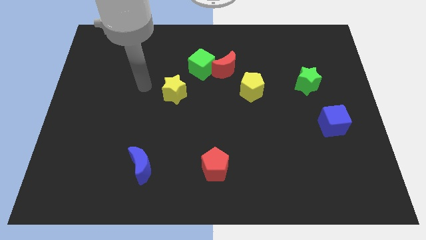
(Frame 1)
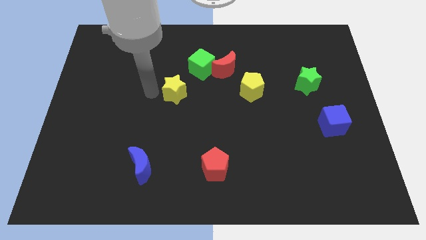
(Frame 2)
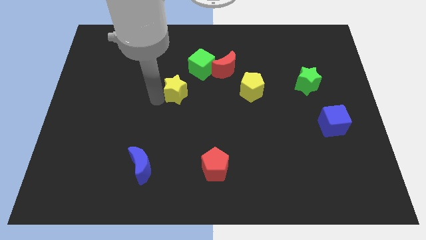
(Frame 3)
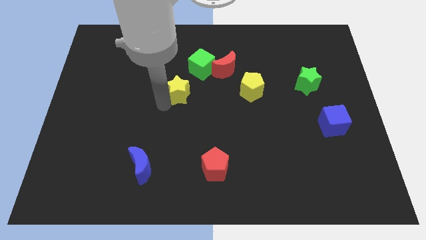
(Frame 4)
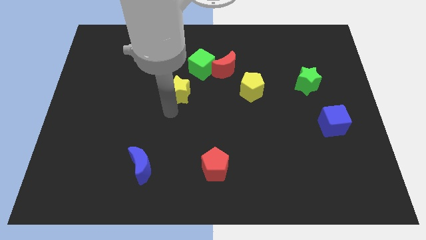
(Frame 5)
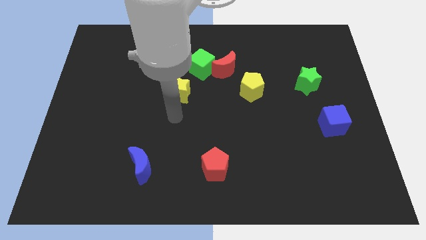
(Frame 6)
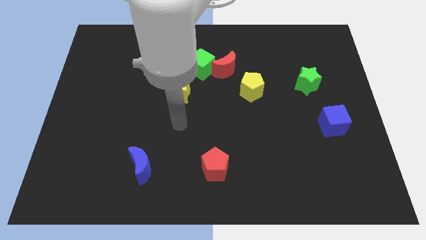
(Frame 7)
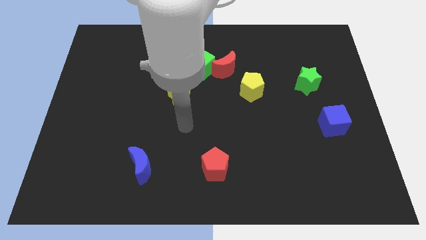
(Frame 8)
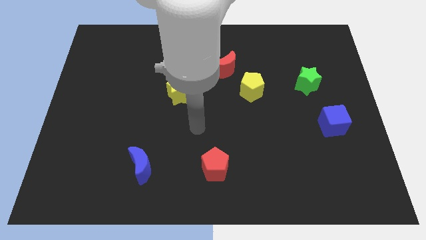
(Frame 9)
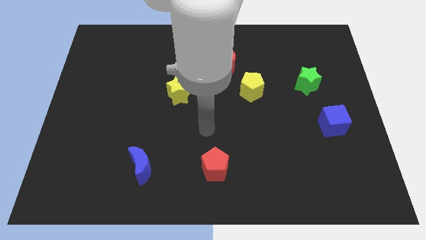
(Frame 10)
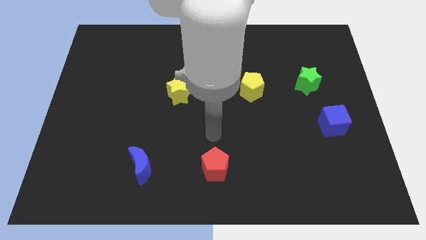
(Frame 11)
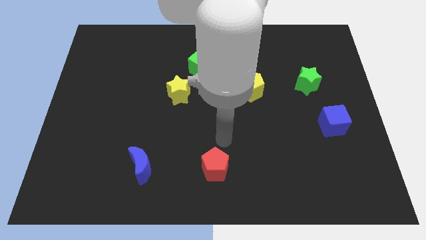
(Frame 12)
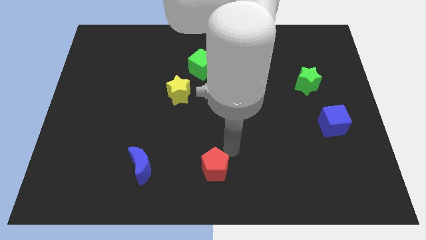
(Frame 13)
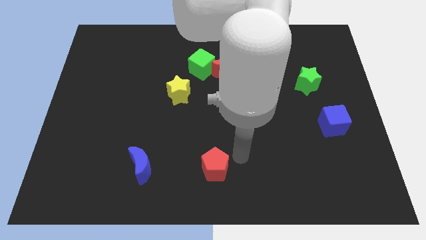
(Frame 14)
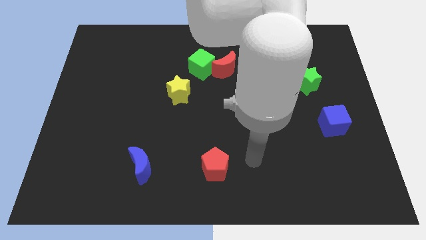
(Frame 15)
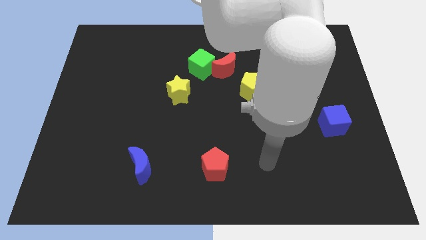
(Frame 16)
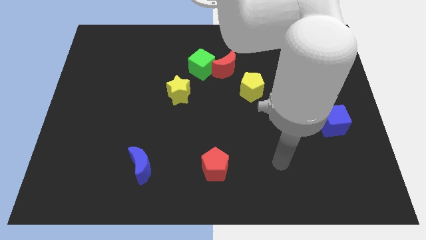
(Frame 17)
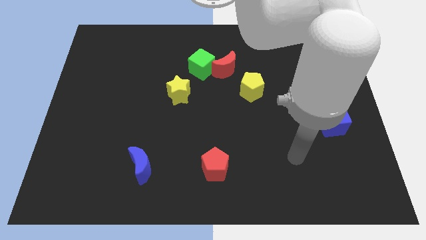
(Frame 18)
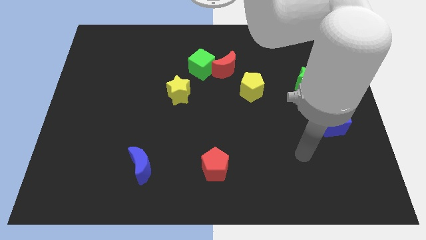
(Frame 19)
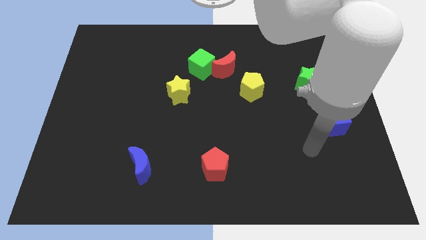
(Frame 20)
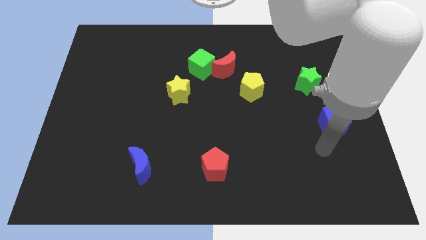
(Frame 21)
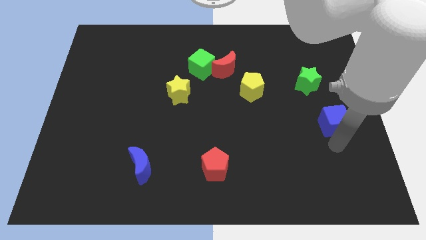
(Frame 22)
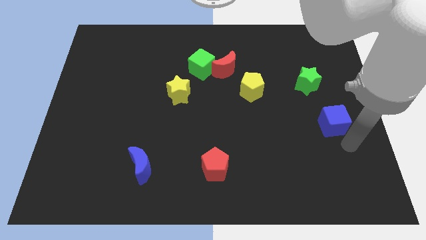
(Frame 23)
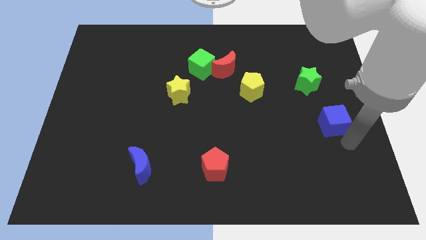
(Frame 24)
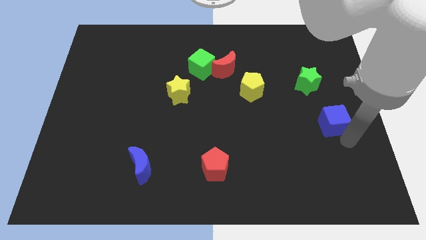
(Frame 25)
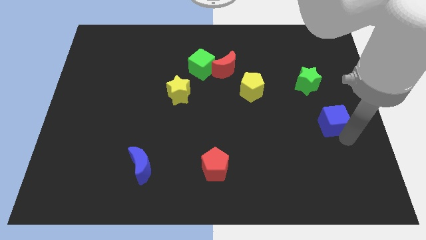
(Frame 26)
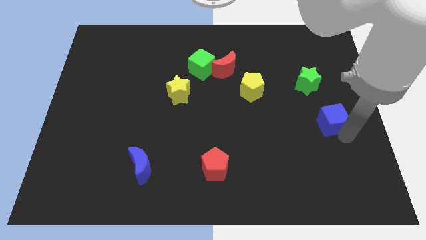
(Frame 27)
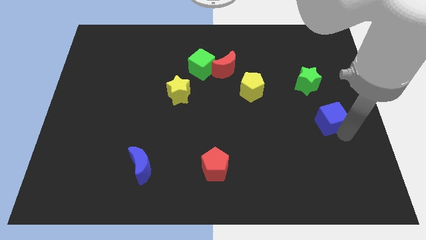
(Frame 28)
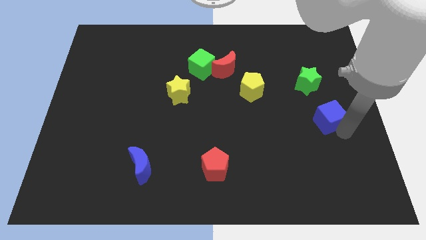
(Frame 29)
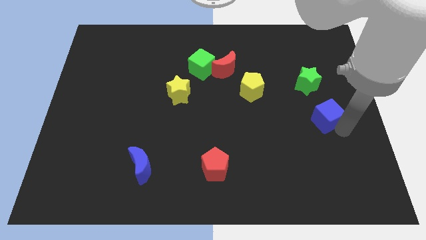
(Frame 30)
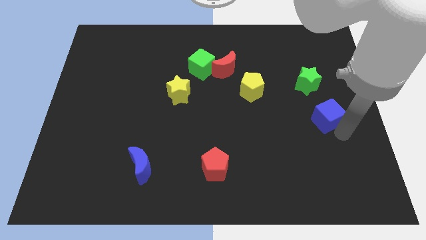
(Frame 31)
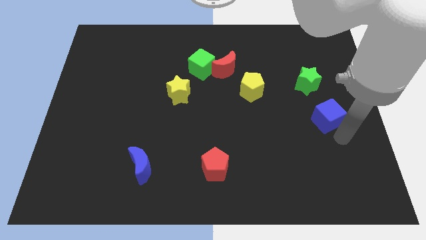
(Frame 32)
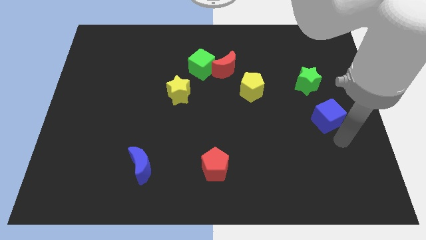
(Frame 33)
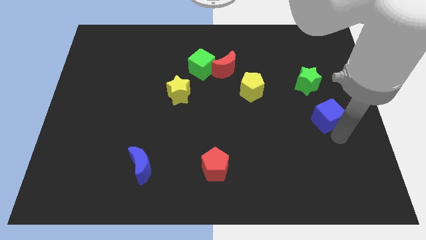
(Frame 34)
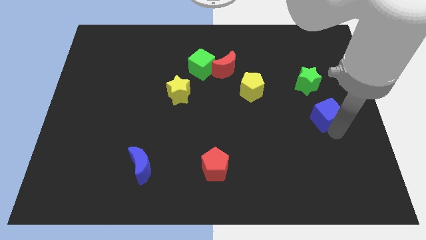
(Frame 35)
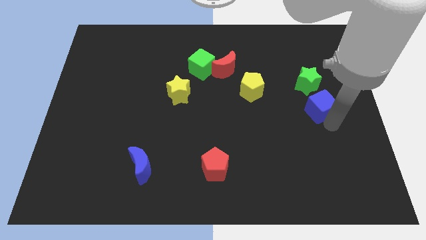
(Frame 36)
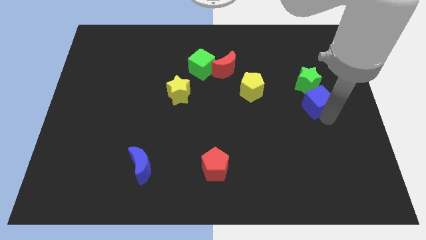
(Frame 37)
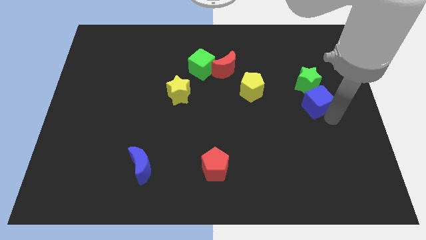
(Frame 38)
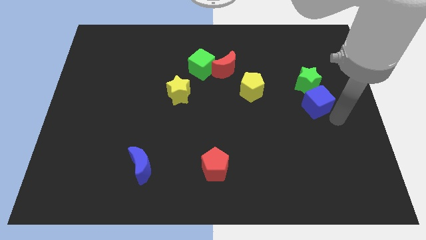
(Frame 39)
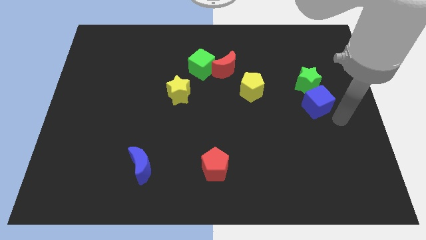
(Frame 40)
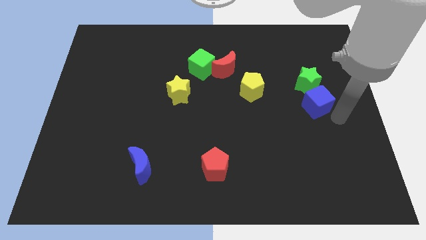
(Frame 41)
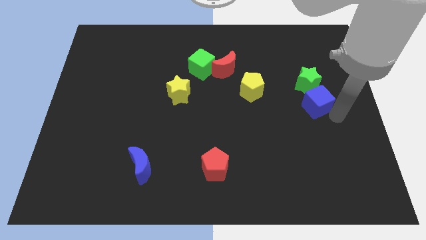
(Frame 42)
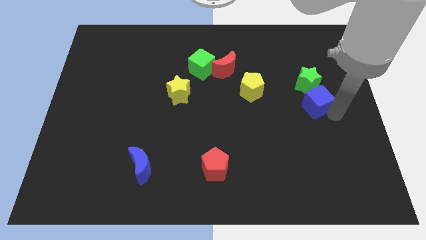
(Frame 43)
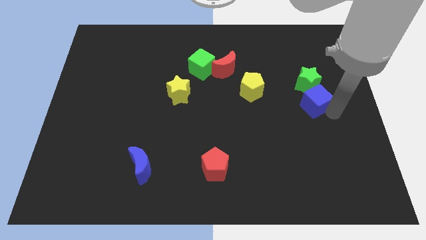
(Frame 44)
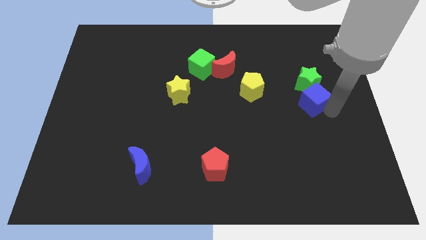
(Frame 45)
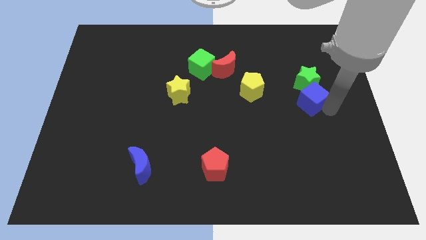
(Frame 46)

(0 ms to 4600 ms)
push the blue cube upwards and left a little

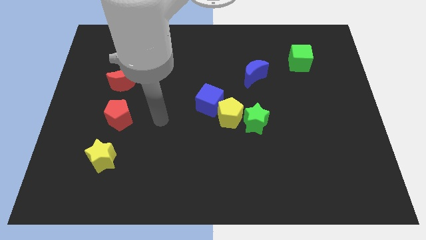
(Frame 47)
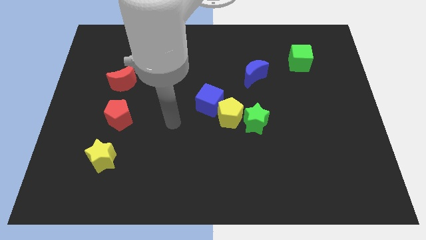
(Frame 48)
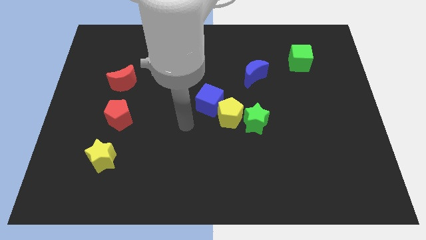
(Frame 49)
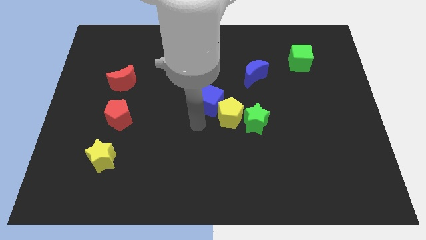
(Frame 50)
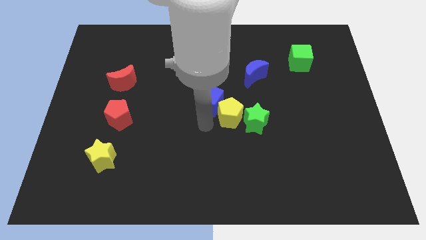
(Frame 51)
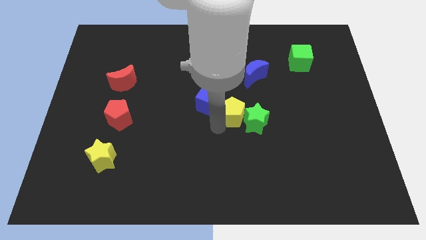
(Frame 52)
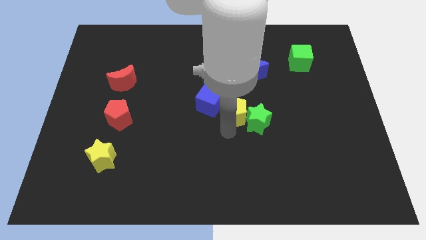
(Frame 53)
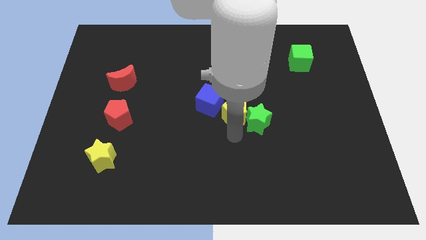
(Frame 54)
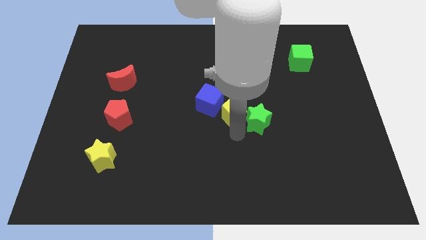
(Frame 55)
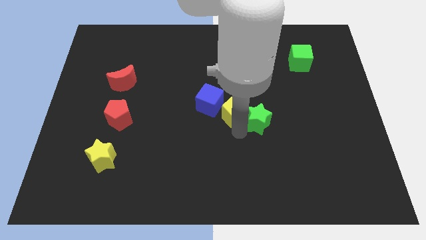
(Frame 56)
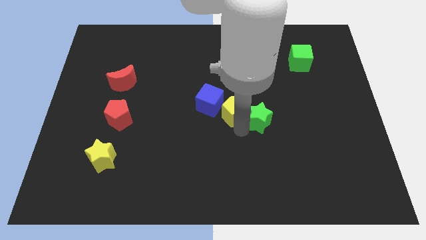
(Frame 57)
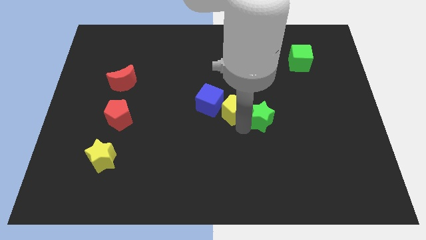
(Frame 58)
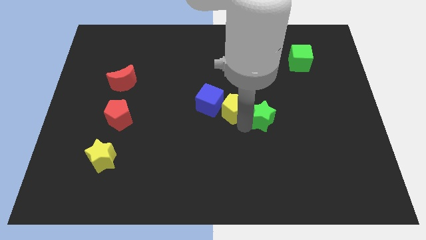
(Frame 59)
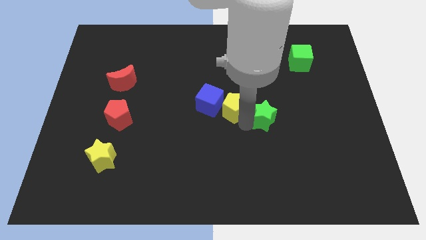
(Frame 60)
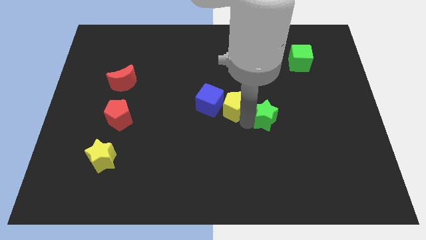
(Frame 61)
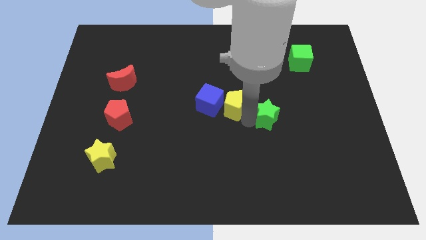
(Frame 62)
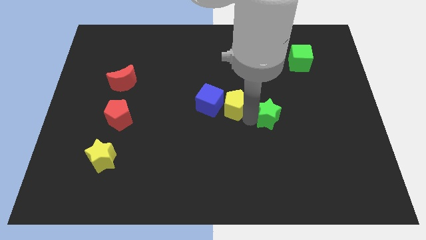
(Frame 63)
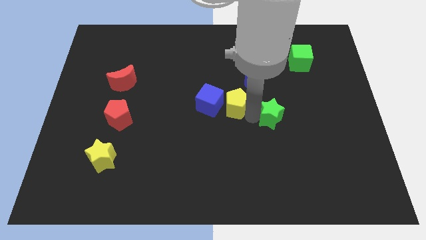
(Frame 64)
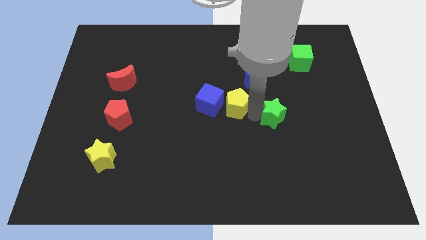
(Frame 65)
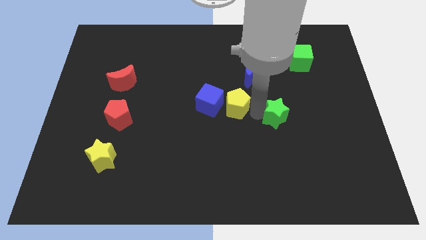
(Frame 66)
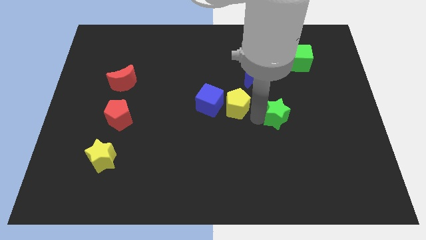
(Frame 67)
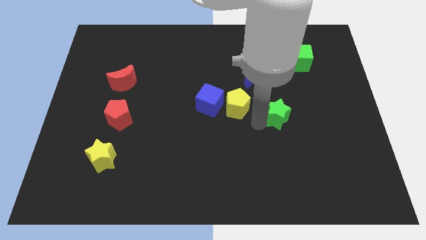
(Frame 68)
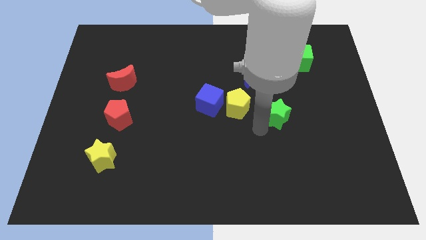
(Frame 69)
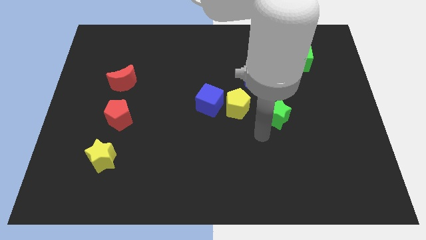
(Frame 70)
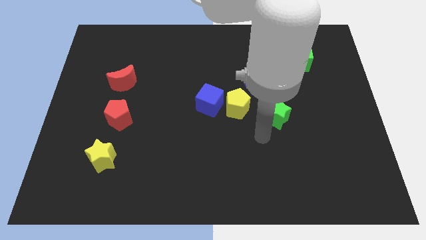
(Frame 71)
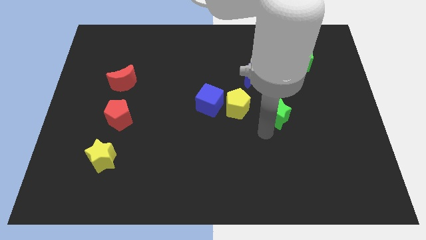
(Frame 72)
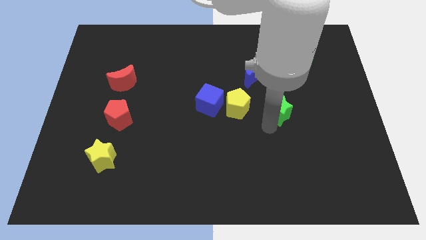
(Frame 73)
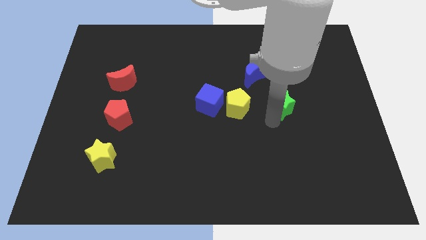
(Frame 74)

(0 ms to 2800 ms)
slightly move the green star upwards and to the right diagonally

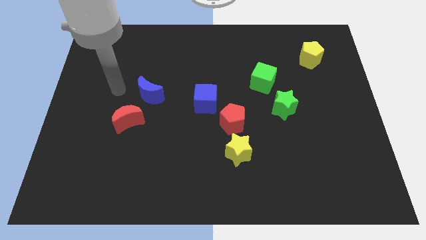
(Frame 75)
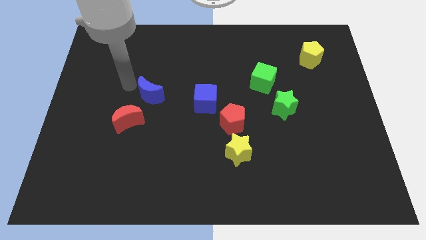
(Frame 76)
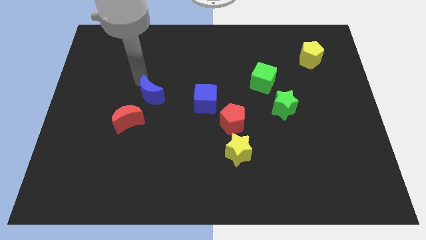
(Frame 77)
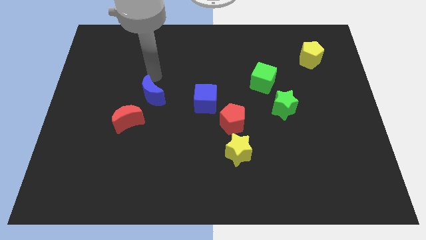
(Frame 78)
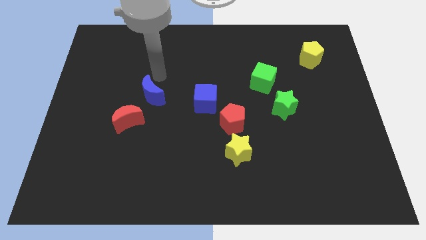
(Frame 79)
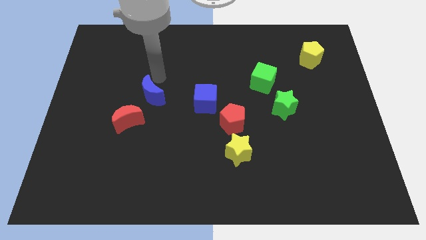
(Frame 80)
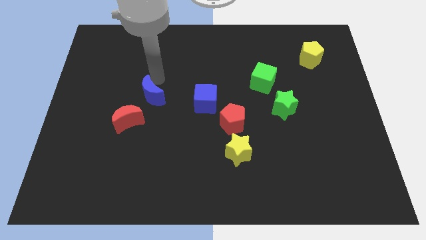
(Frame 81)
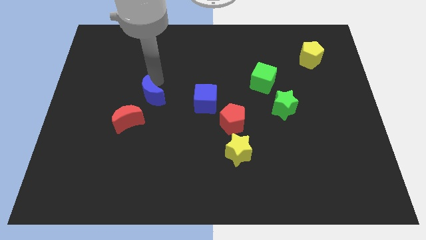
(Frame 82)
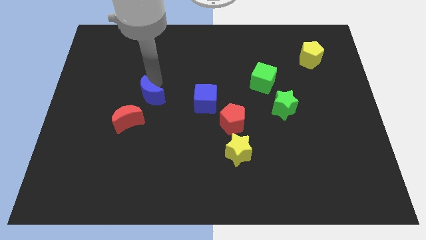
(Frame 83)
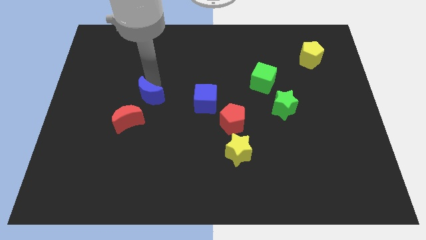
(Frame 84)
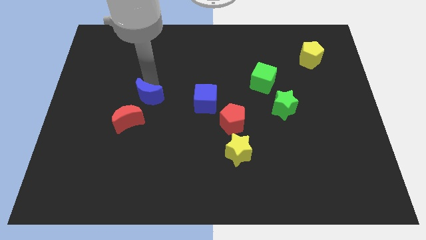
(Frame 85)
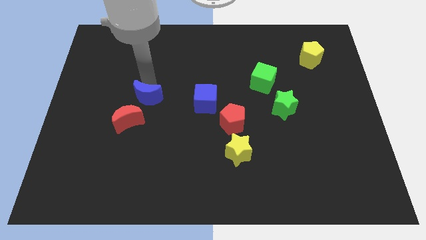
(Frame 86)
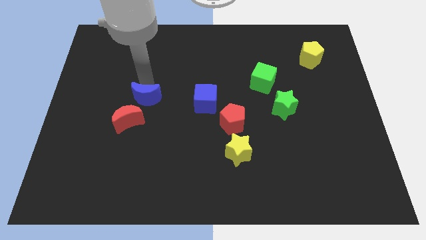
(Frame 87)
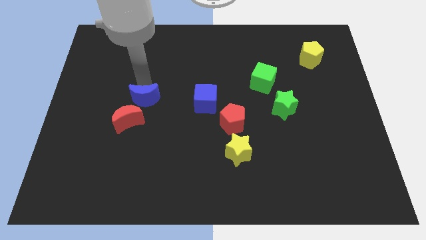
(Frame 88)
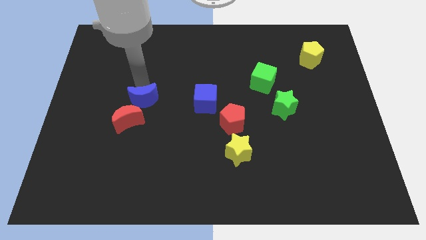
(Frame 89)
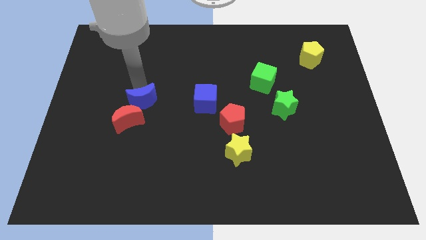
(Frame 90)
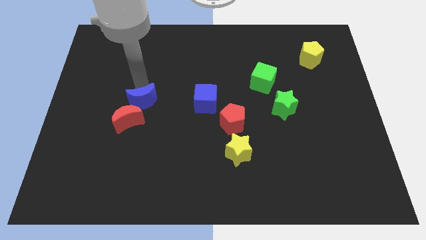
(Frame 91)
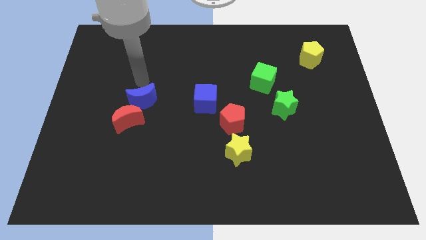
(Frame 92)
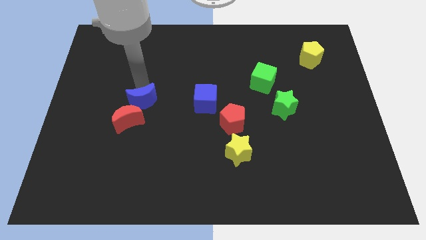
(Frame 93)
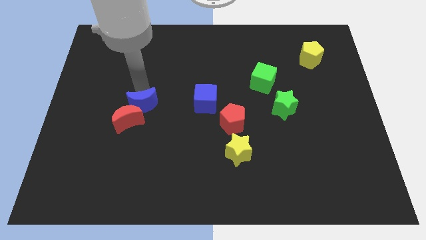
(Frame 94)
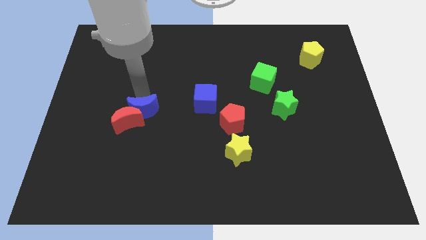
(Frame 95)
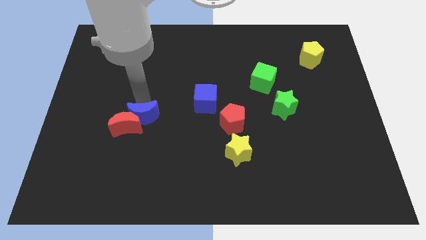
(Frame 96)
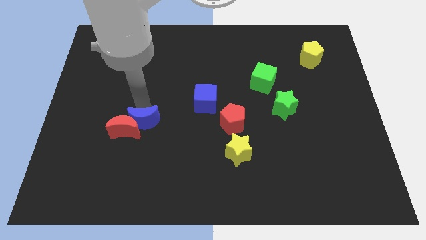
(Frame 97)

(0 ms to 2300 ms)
move the blue moon downwards slightly
